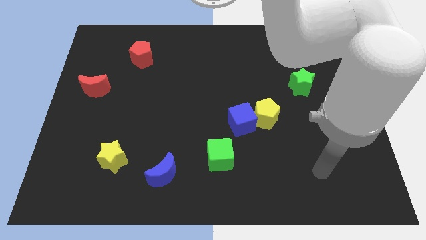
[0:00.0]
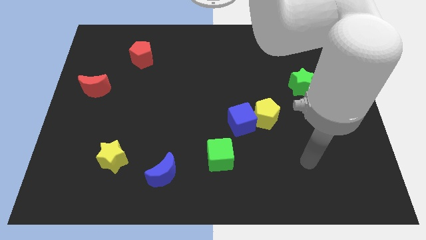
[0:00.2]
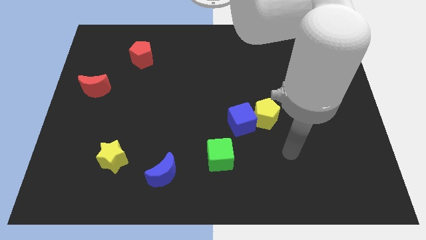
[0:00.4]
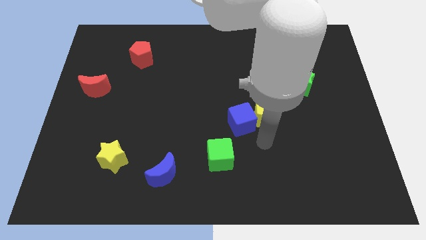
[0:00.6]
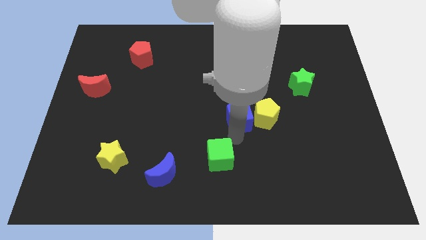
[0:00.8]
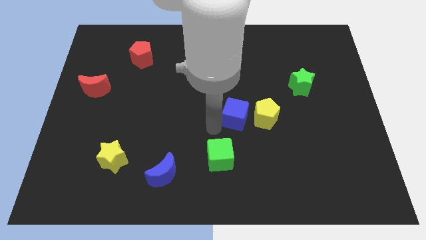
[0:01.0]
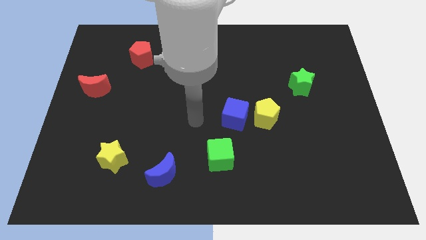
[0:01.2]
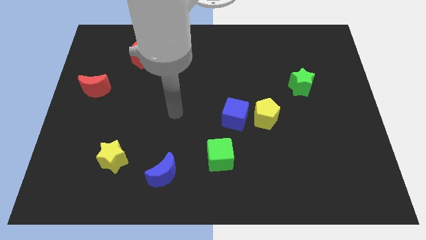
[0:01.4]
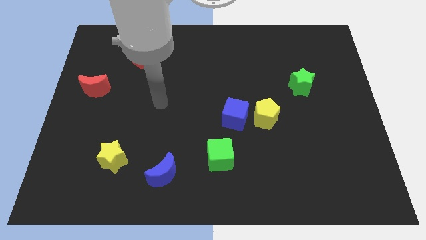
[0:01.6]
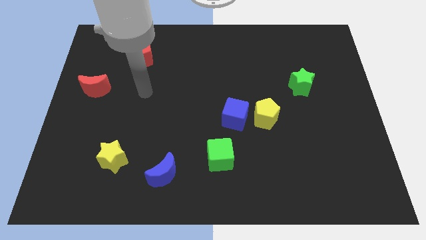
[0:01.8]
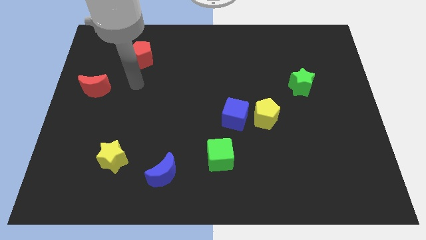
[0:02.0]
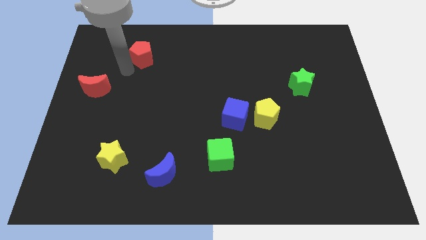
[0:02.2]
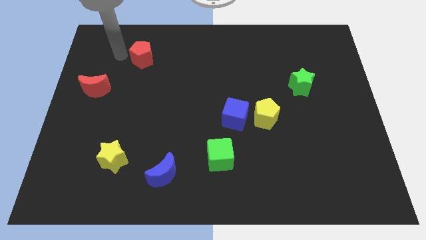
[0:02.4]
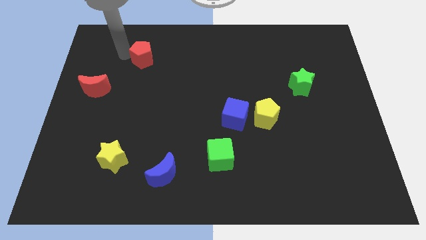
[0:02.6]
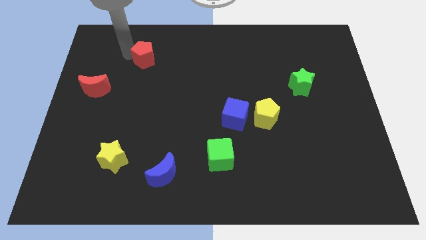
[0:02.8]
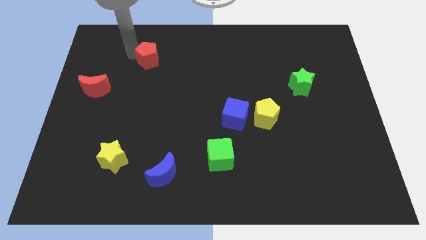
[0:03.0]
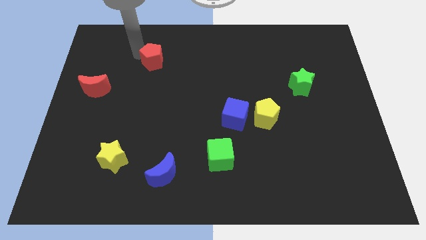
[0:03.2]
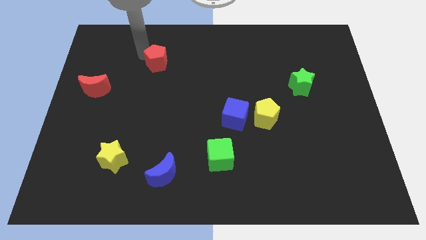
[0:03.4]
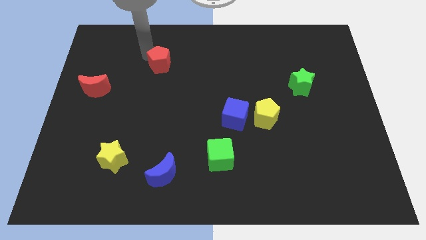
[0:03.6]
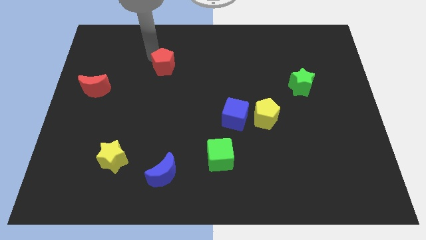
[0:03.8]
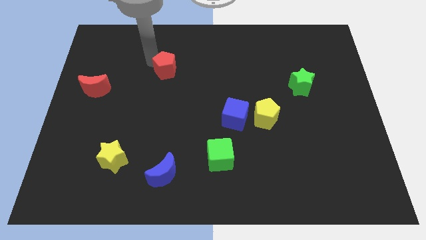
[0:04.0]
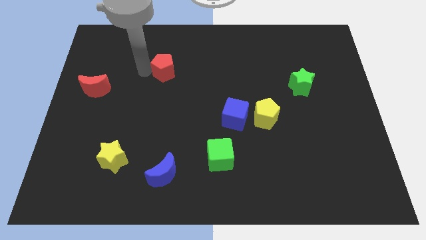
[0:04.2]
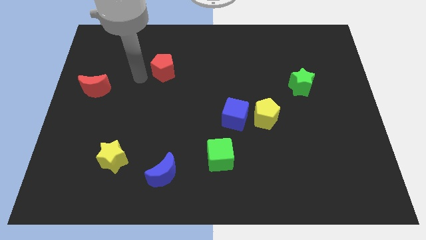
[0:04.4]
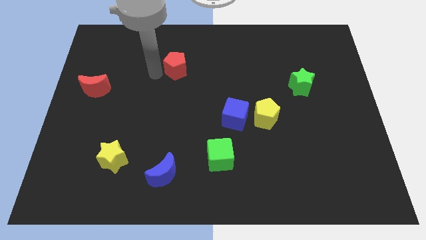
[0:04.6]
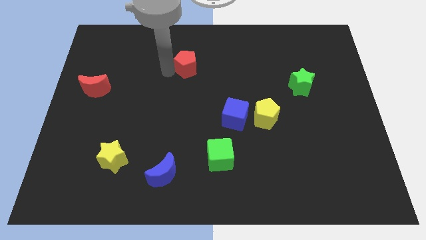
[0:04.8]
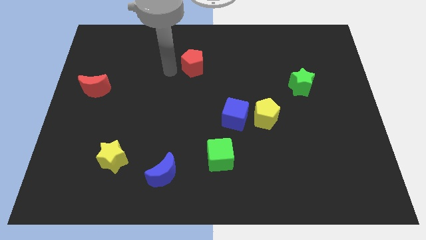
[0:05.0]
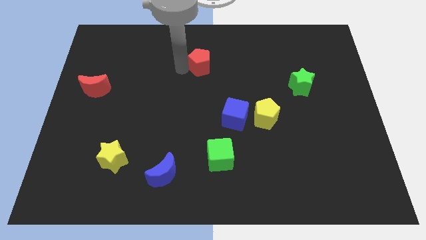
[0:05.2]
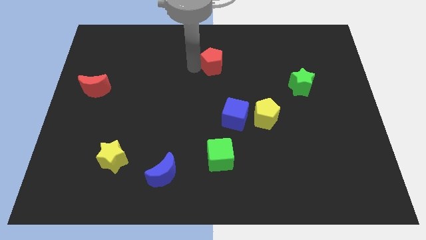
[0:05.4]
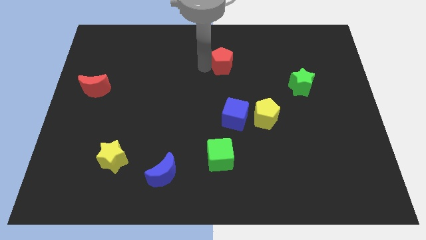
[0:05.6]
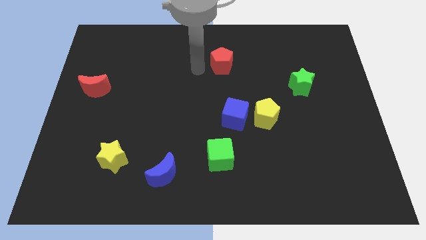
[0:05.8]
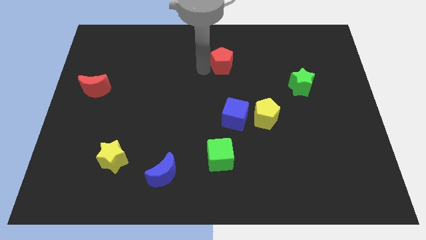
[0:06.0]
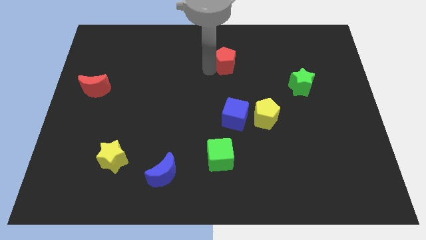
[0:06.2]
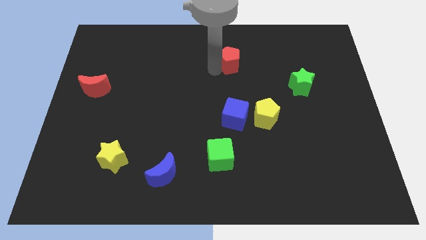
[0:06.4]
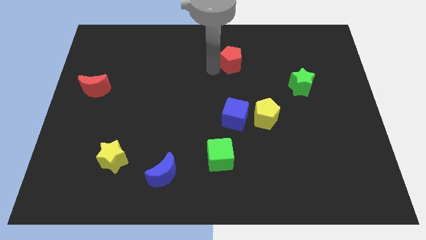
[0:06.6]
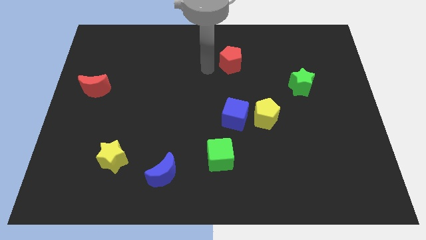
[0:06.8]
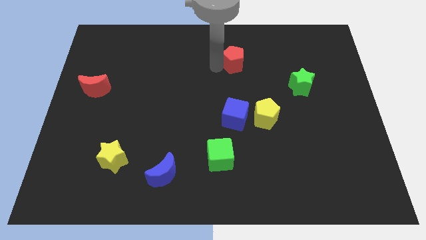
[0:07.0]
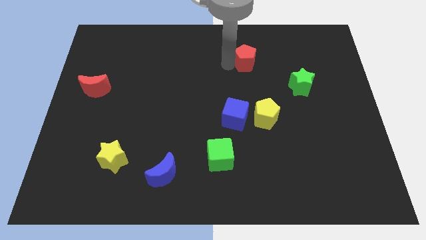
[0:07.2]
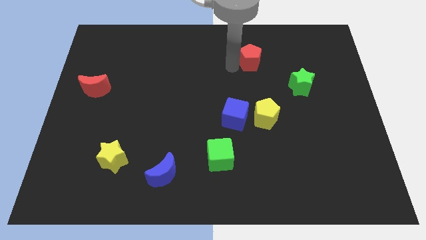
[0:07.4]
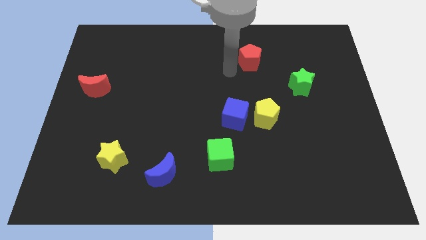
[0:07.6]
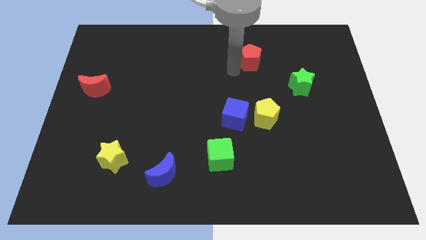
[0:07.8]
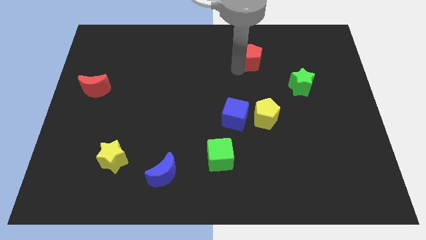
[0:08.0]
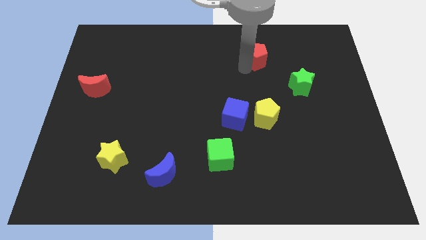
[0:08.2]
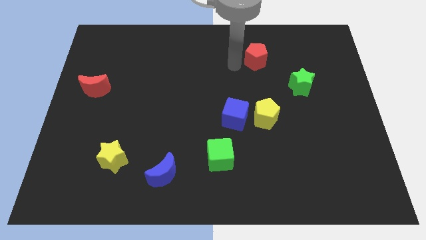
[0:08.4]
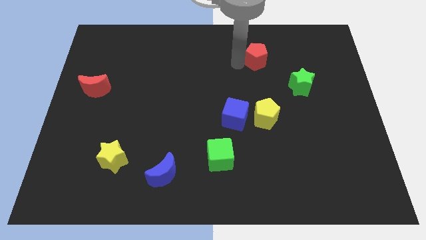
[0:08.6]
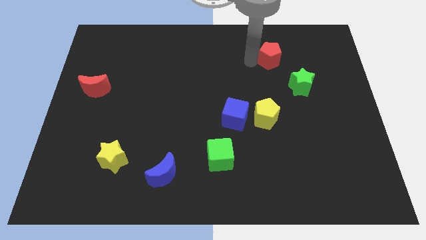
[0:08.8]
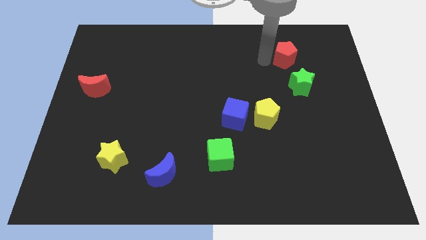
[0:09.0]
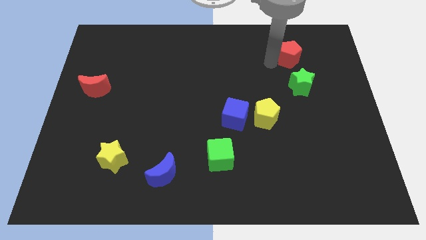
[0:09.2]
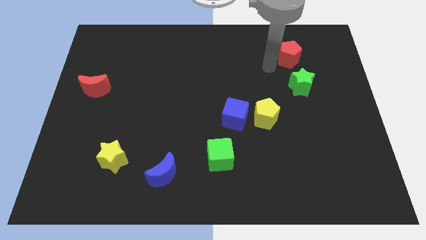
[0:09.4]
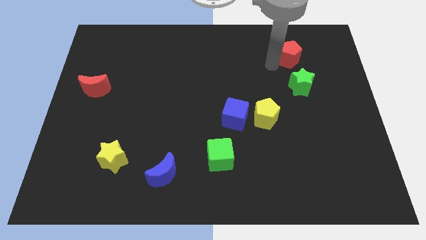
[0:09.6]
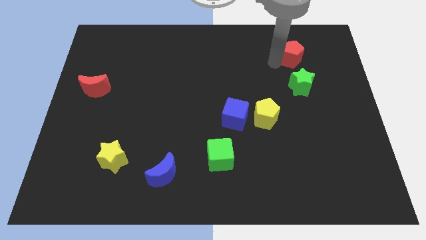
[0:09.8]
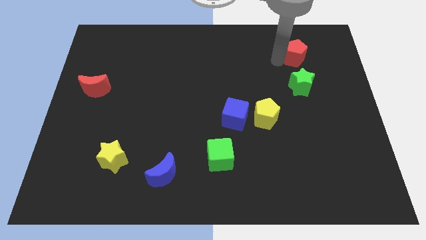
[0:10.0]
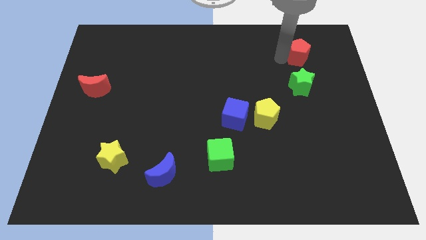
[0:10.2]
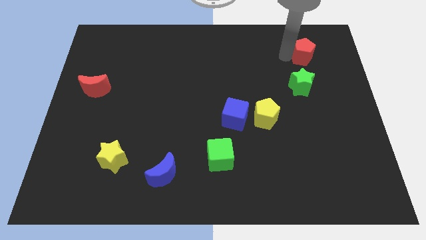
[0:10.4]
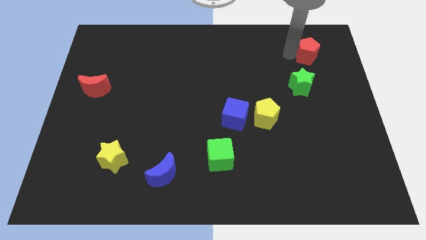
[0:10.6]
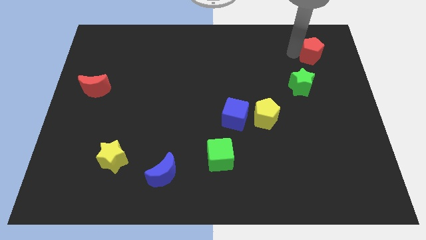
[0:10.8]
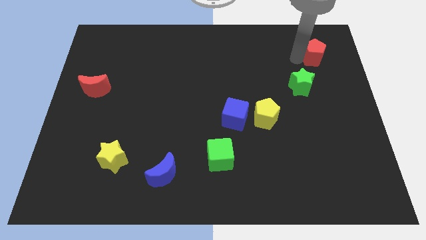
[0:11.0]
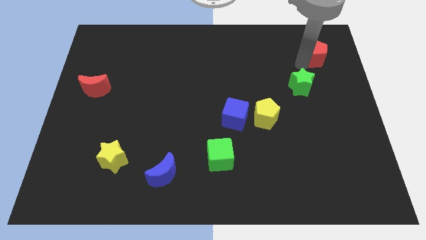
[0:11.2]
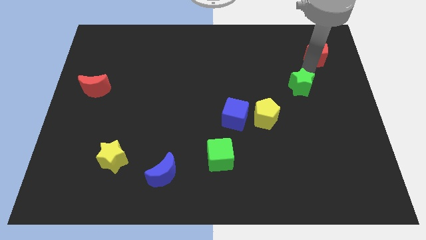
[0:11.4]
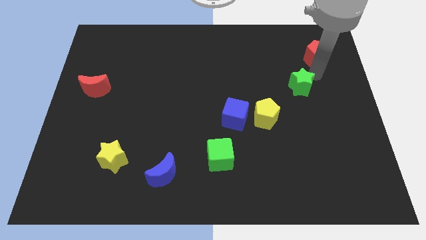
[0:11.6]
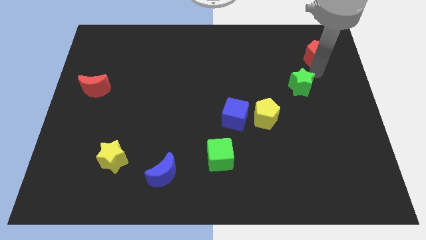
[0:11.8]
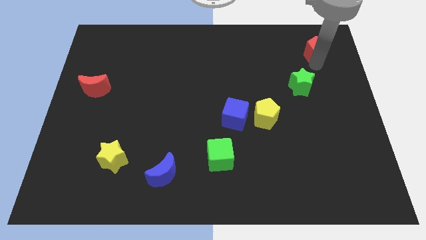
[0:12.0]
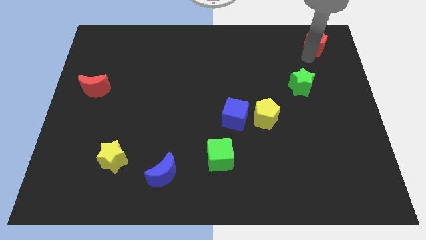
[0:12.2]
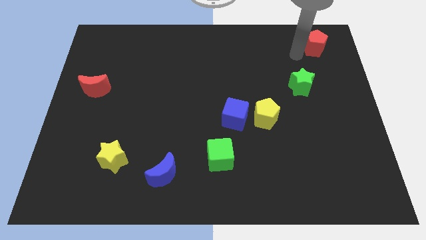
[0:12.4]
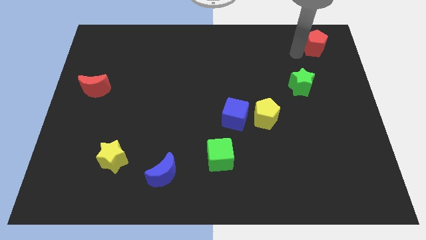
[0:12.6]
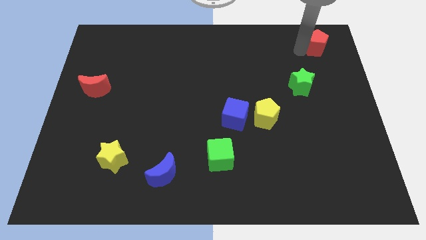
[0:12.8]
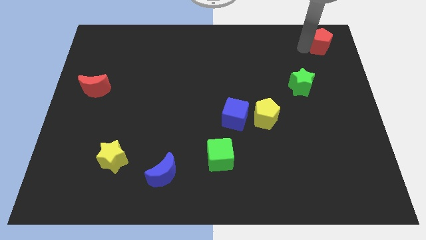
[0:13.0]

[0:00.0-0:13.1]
move the red pentagon to the upper right corner
